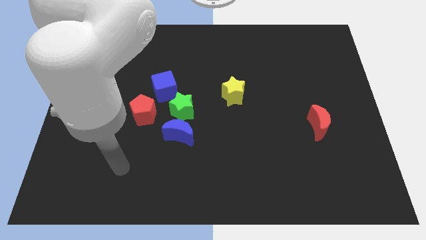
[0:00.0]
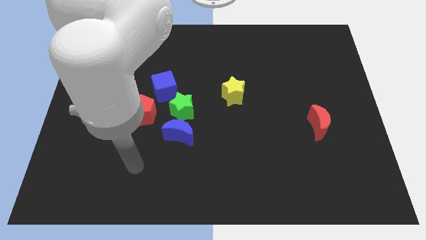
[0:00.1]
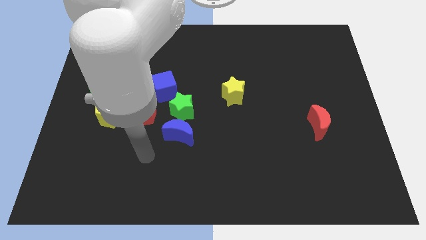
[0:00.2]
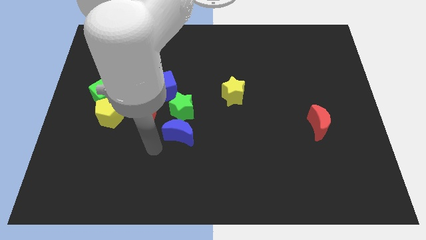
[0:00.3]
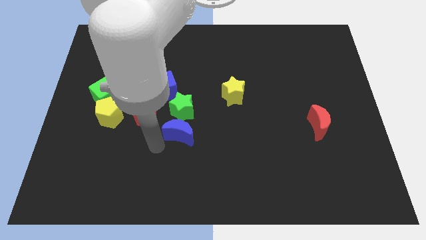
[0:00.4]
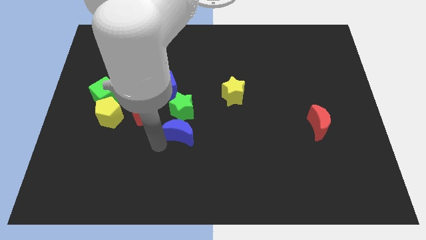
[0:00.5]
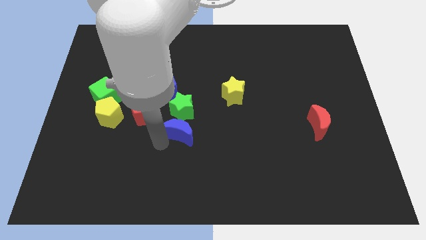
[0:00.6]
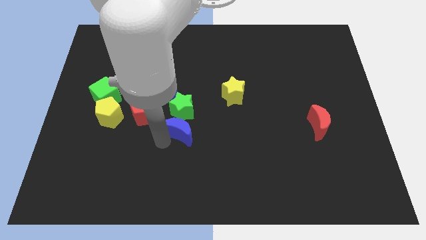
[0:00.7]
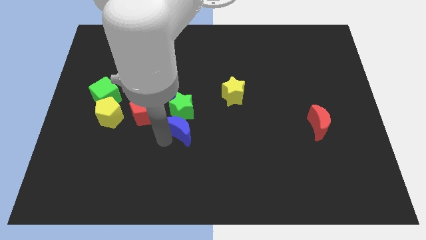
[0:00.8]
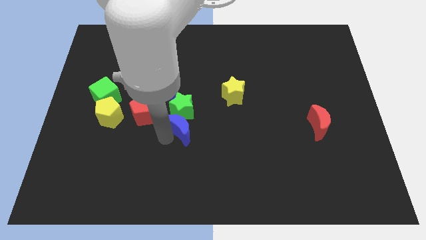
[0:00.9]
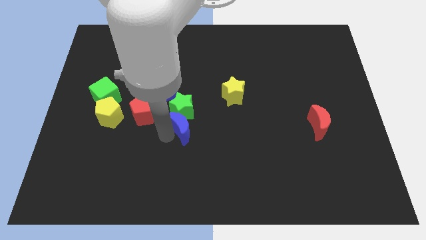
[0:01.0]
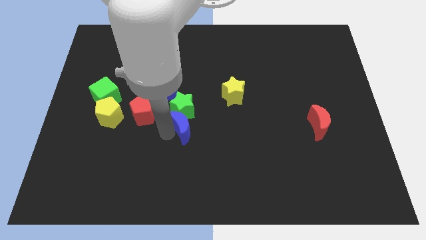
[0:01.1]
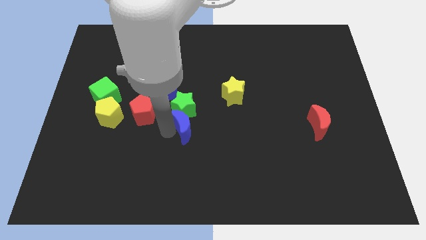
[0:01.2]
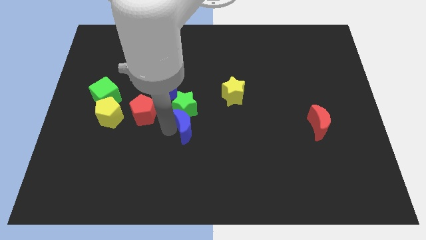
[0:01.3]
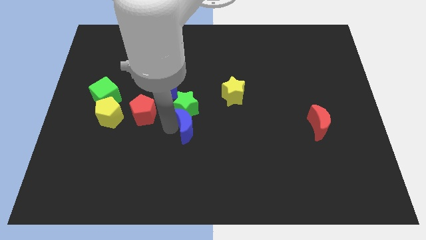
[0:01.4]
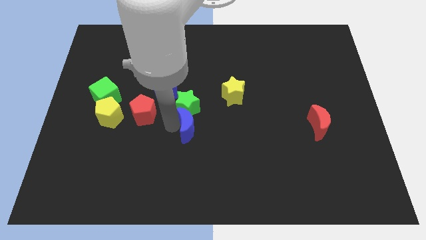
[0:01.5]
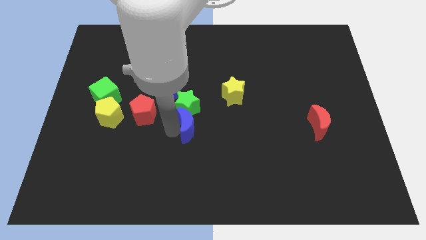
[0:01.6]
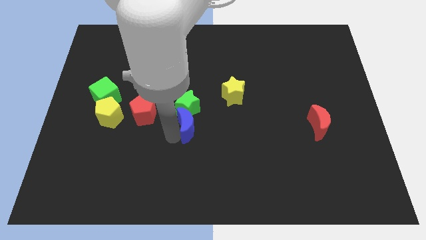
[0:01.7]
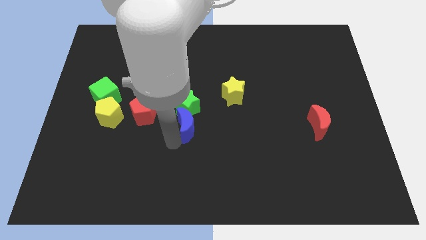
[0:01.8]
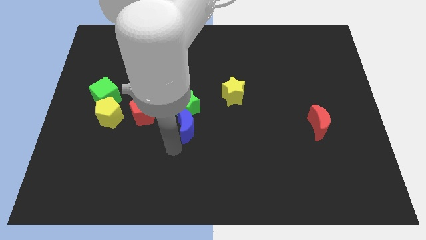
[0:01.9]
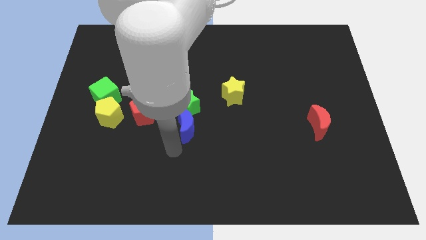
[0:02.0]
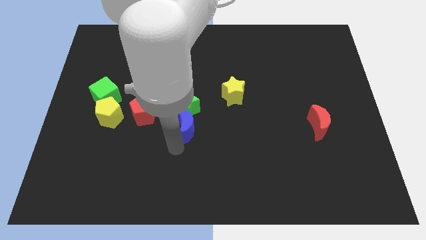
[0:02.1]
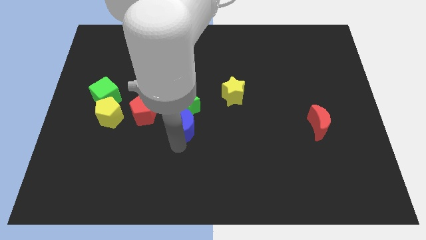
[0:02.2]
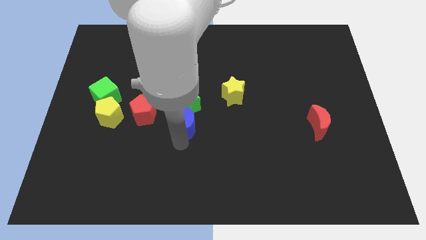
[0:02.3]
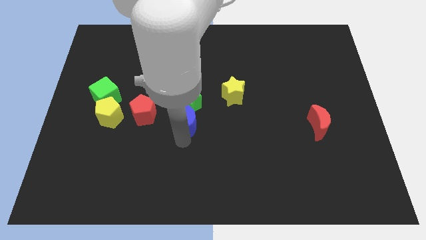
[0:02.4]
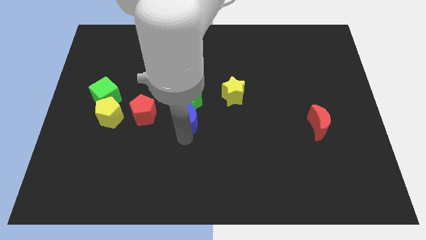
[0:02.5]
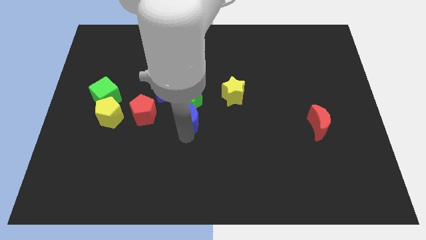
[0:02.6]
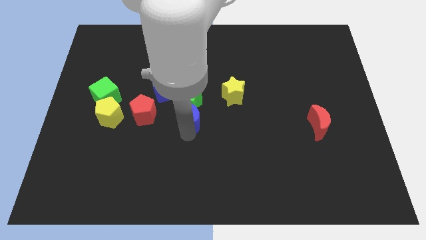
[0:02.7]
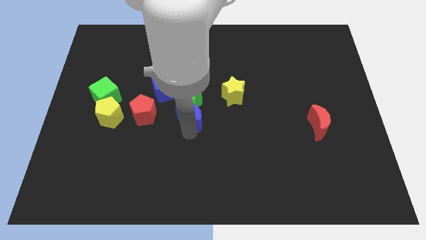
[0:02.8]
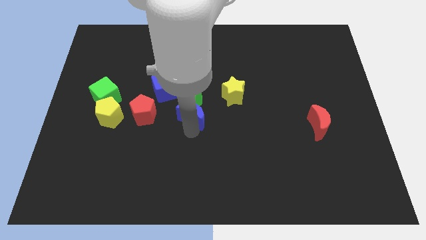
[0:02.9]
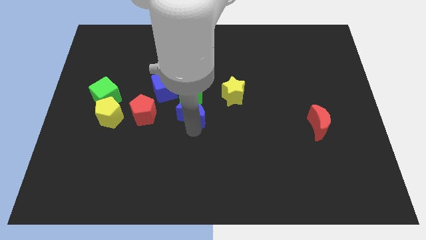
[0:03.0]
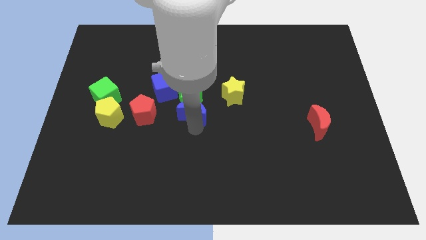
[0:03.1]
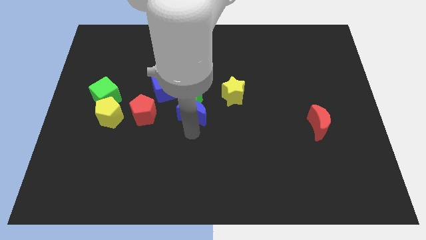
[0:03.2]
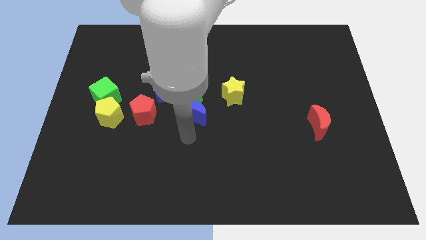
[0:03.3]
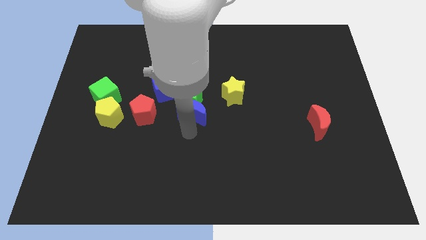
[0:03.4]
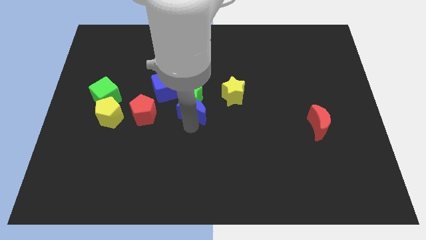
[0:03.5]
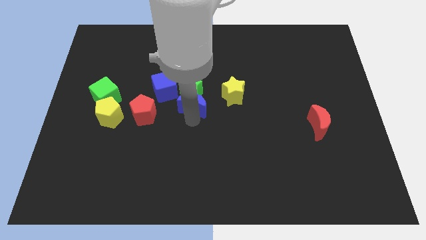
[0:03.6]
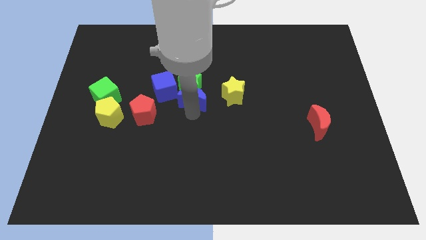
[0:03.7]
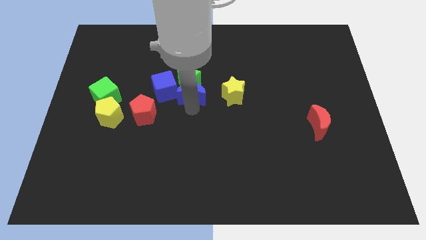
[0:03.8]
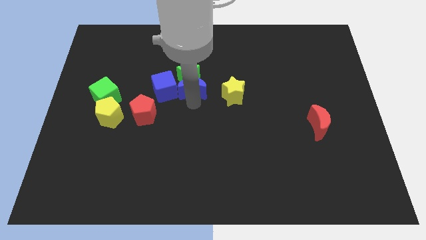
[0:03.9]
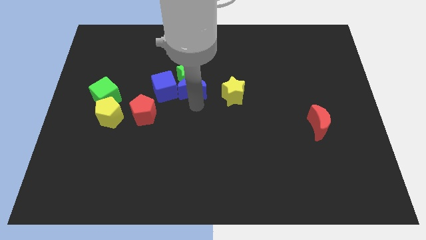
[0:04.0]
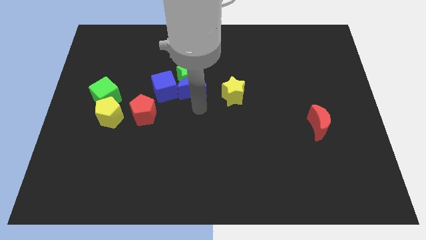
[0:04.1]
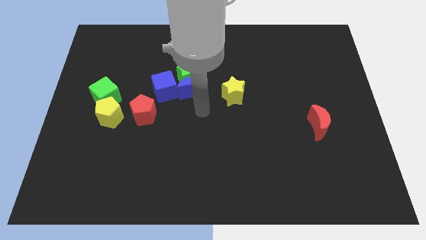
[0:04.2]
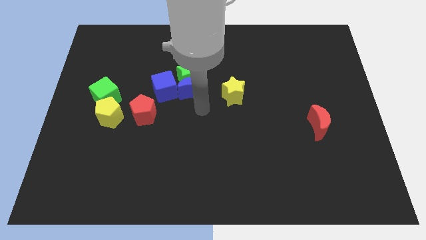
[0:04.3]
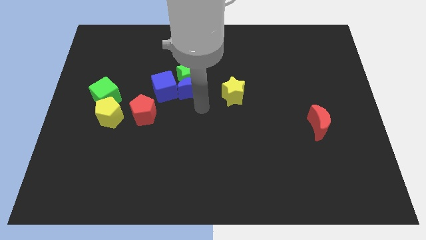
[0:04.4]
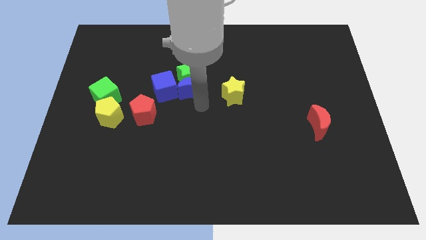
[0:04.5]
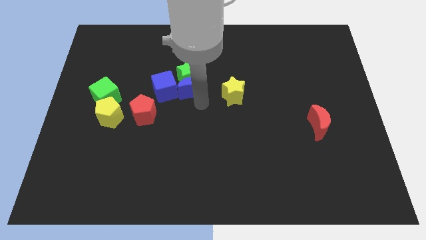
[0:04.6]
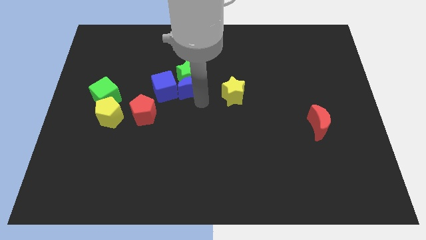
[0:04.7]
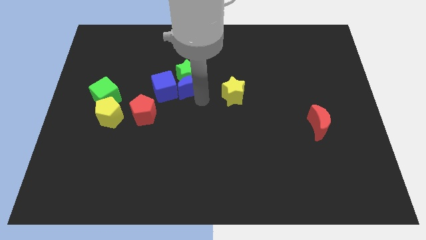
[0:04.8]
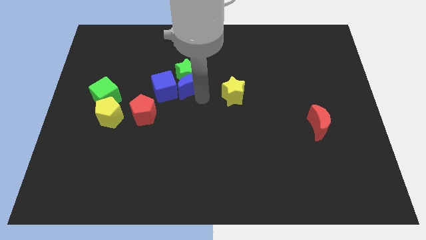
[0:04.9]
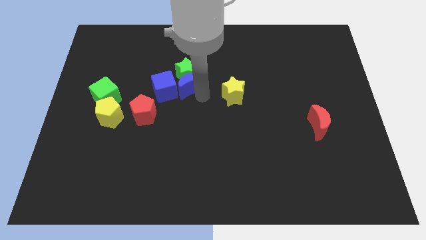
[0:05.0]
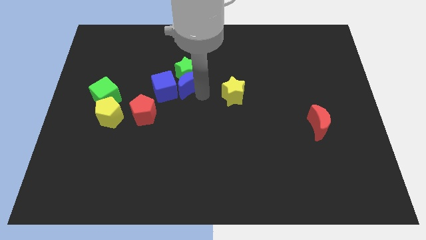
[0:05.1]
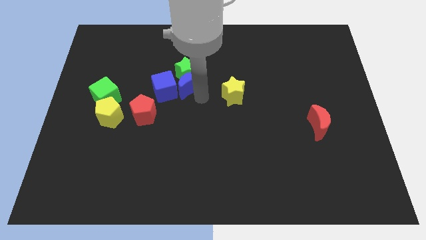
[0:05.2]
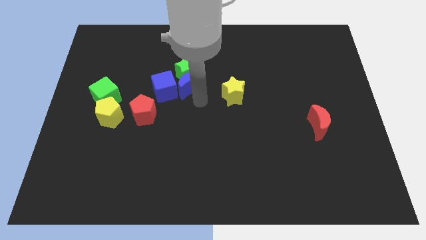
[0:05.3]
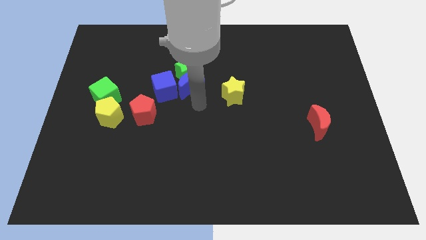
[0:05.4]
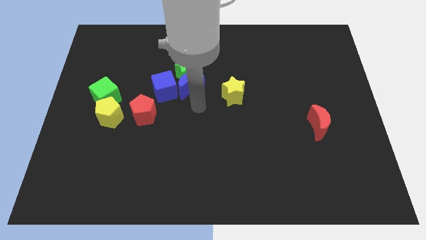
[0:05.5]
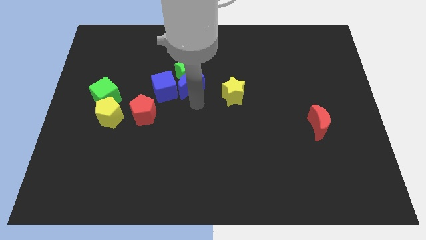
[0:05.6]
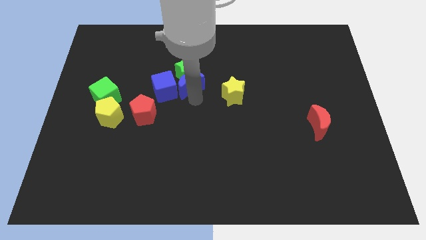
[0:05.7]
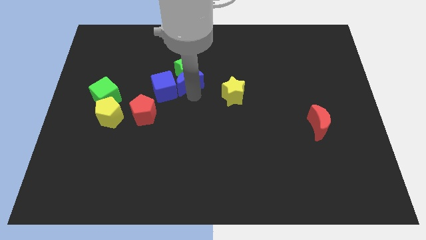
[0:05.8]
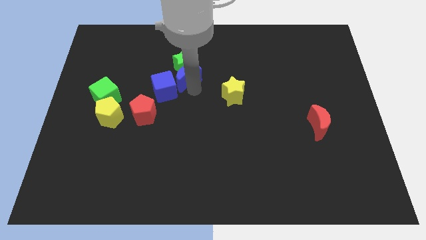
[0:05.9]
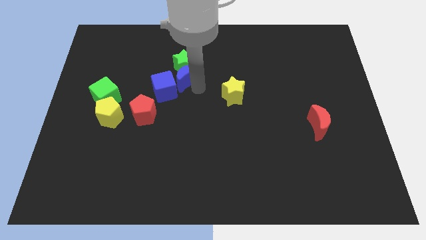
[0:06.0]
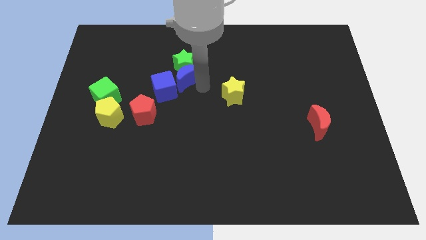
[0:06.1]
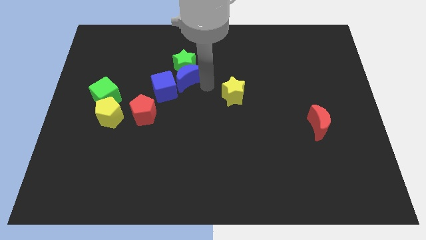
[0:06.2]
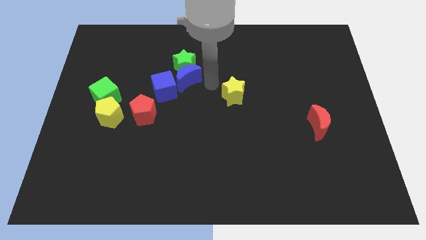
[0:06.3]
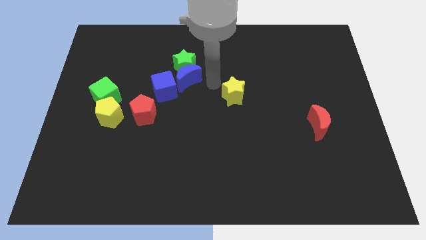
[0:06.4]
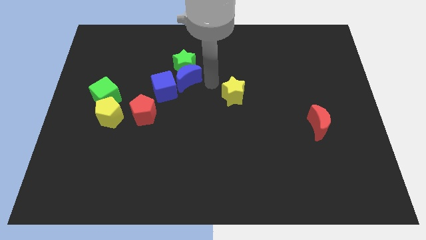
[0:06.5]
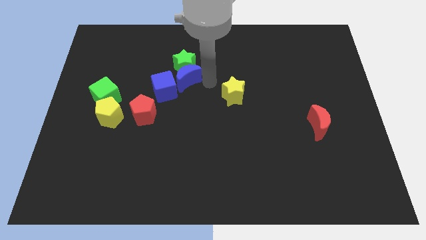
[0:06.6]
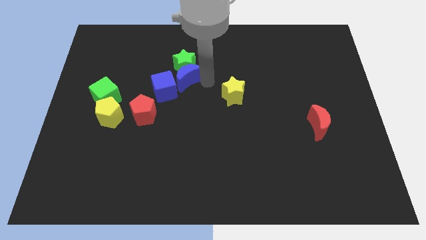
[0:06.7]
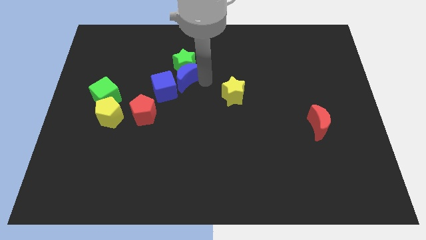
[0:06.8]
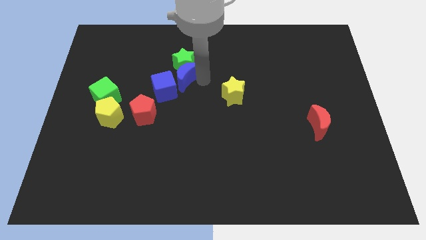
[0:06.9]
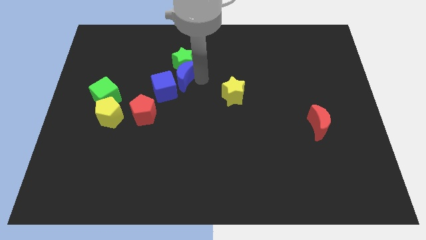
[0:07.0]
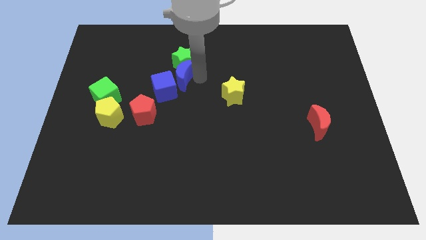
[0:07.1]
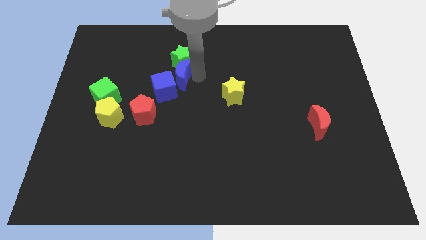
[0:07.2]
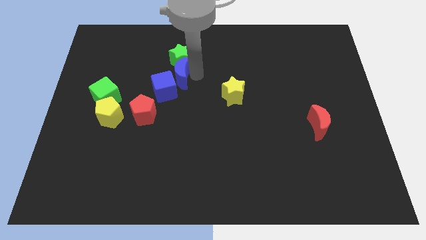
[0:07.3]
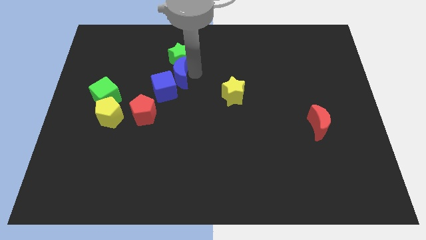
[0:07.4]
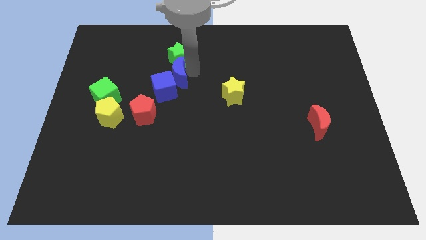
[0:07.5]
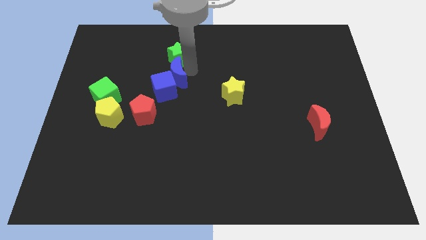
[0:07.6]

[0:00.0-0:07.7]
move the blue moon up and left a bit

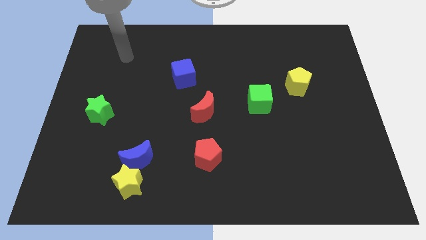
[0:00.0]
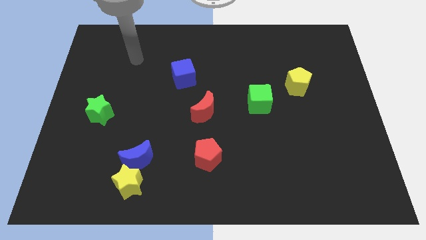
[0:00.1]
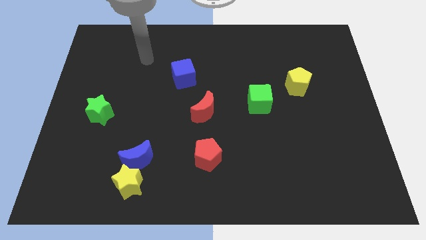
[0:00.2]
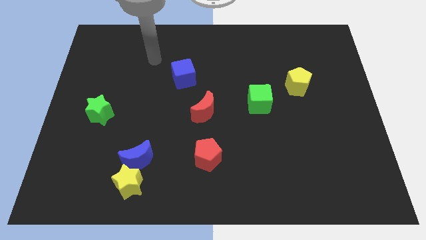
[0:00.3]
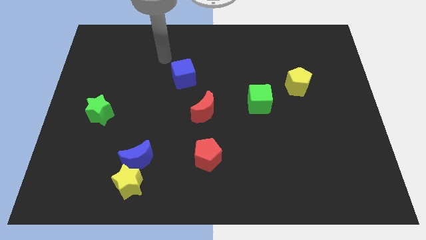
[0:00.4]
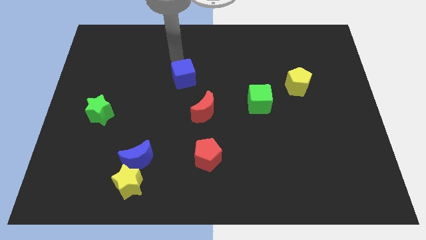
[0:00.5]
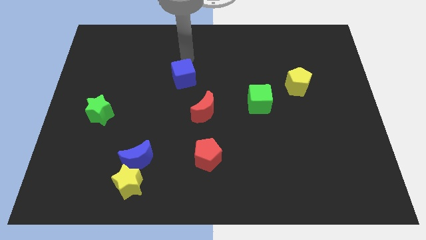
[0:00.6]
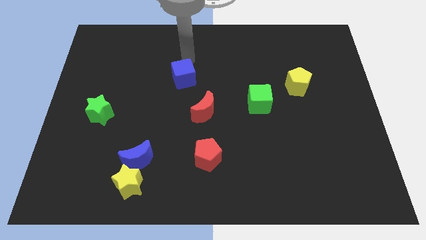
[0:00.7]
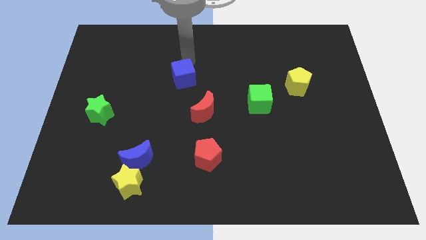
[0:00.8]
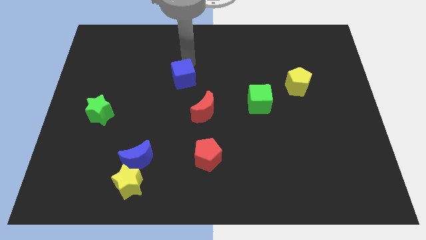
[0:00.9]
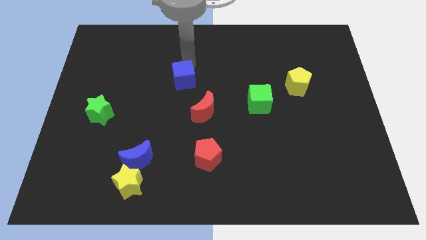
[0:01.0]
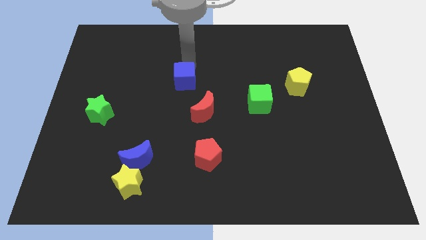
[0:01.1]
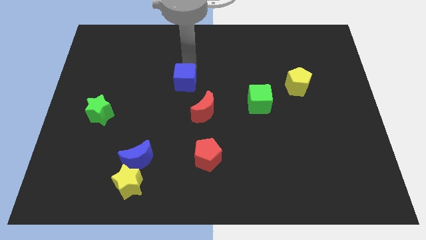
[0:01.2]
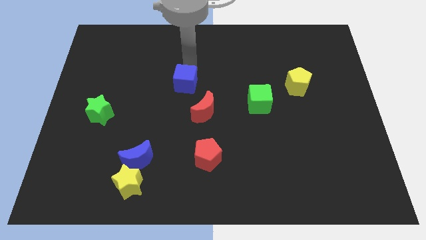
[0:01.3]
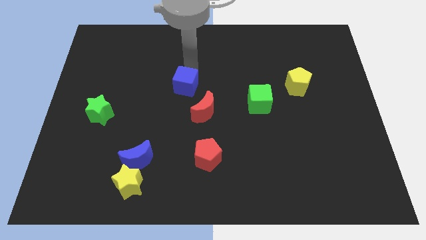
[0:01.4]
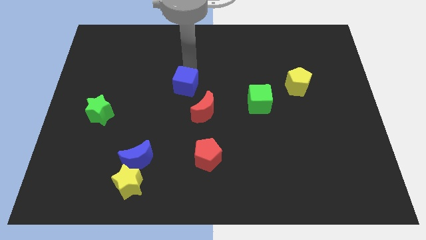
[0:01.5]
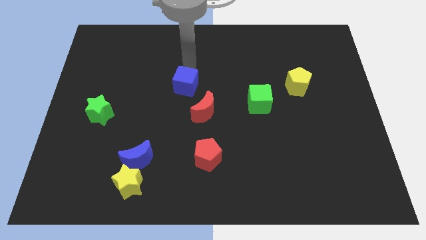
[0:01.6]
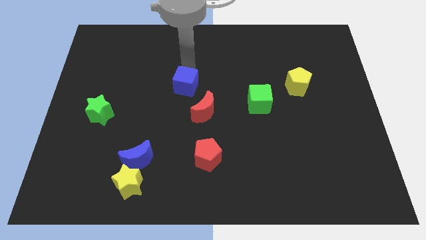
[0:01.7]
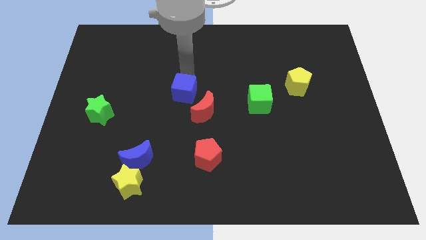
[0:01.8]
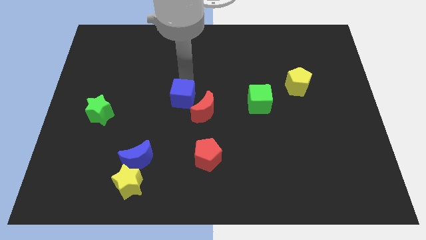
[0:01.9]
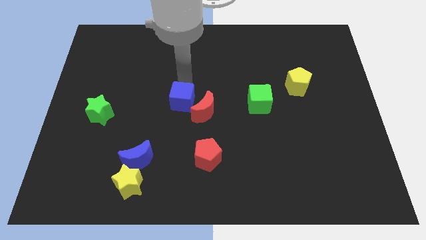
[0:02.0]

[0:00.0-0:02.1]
push the blue cube a little down
